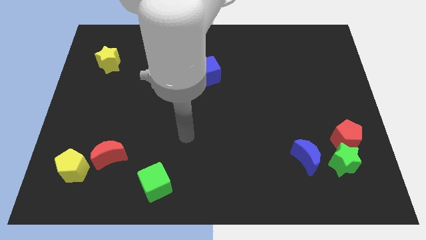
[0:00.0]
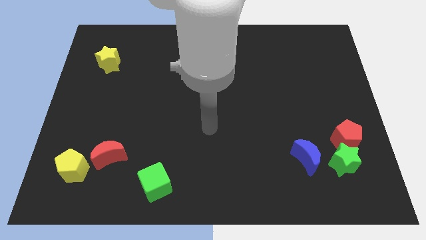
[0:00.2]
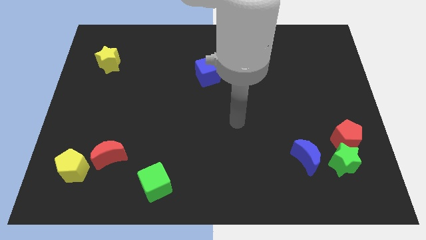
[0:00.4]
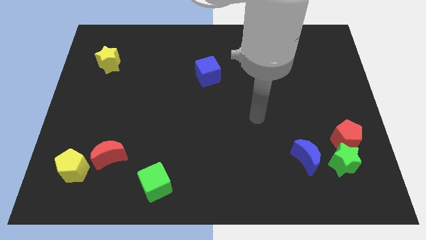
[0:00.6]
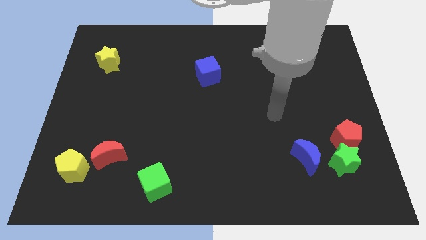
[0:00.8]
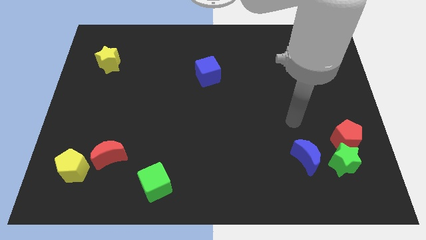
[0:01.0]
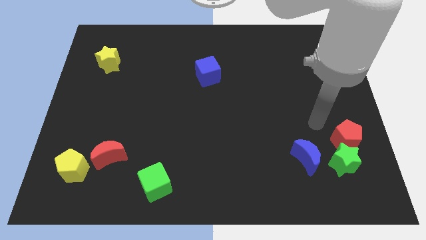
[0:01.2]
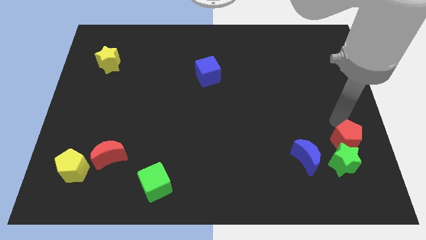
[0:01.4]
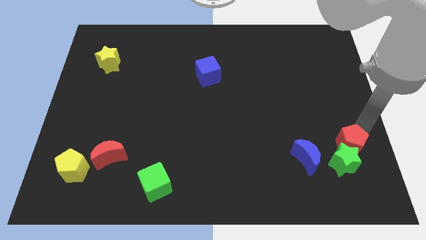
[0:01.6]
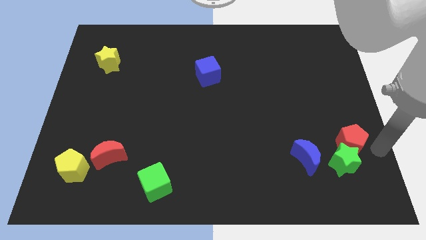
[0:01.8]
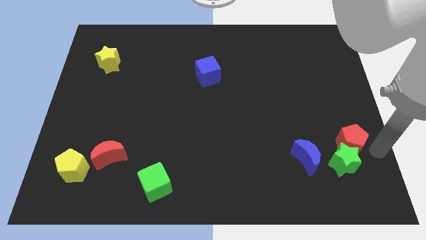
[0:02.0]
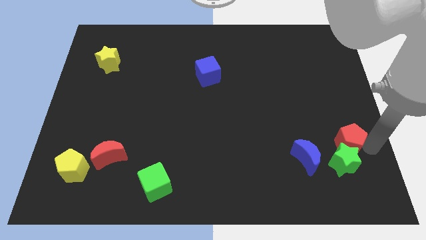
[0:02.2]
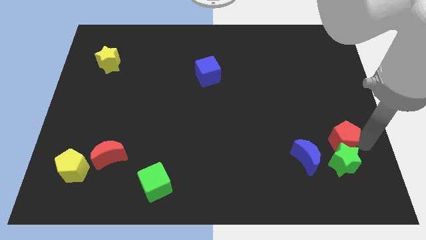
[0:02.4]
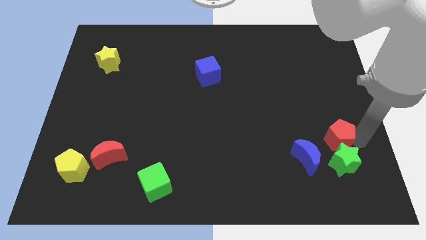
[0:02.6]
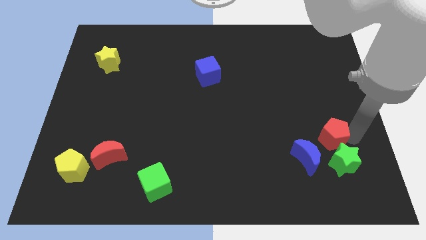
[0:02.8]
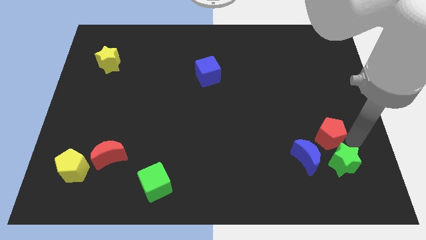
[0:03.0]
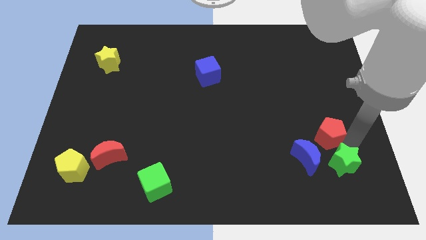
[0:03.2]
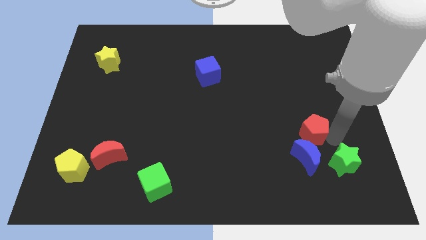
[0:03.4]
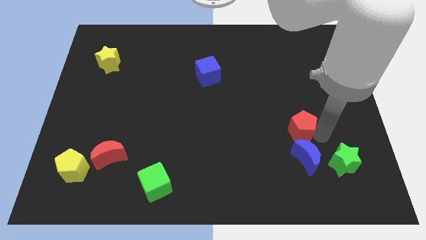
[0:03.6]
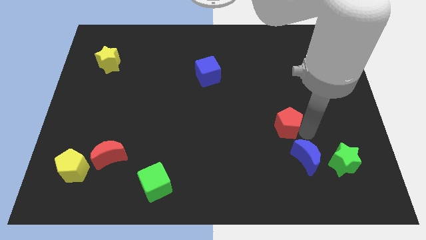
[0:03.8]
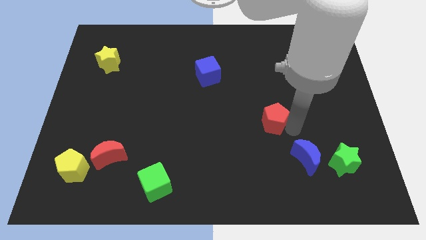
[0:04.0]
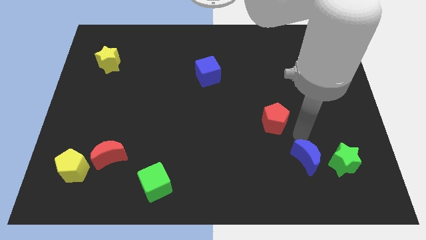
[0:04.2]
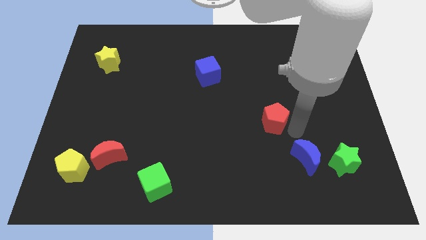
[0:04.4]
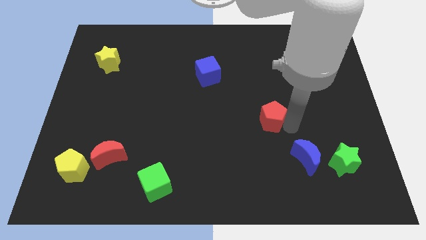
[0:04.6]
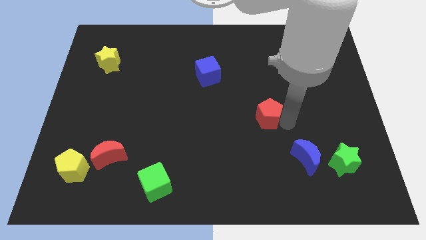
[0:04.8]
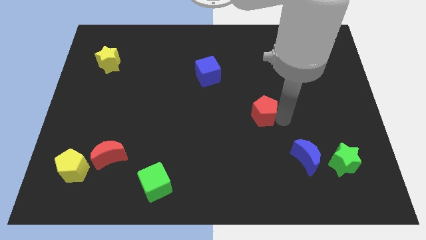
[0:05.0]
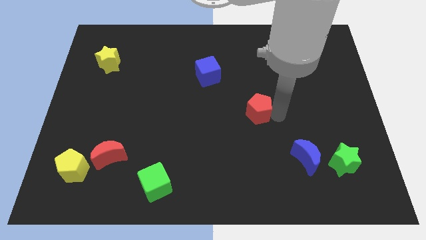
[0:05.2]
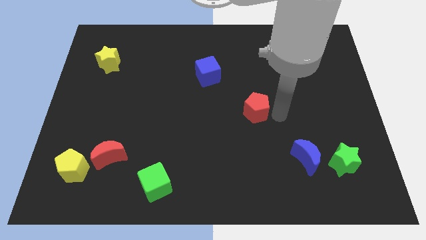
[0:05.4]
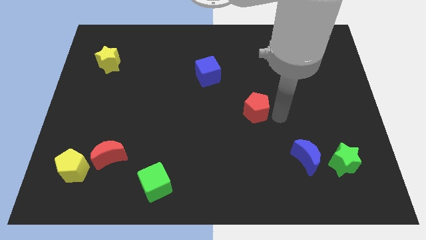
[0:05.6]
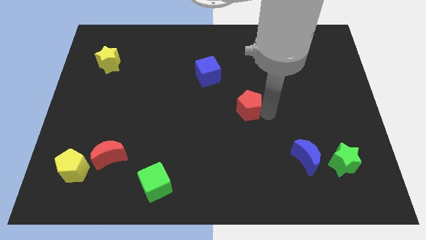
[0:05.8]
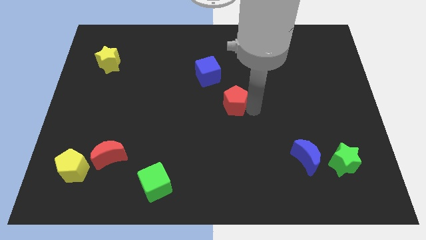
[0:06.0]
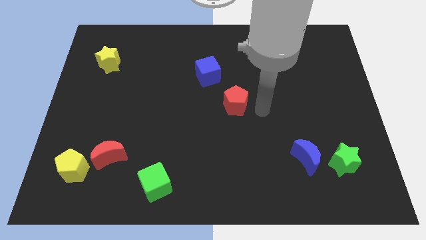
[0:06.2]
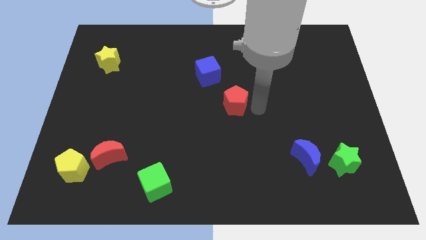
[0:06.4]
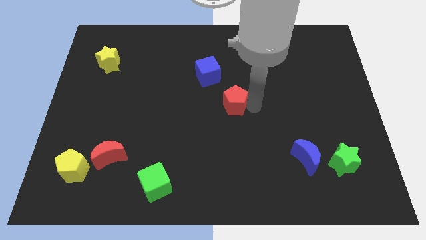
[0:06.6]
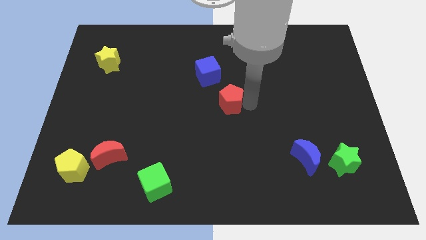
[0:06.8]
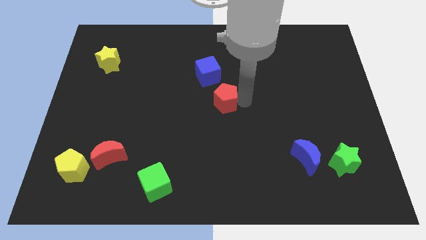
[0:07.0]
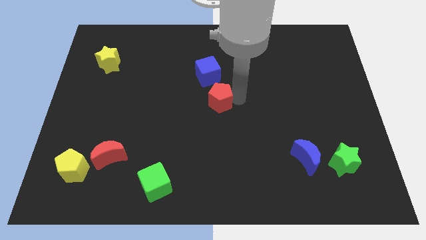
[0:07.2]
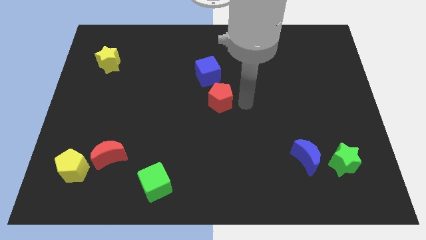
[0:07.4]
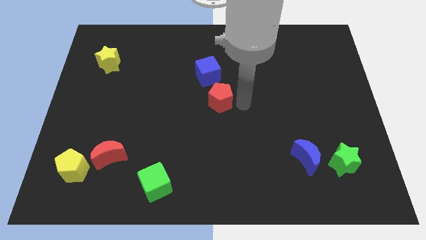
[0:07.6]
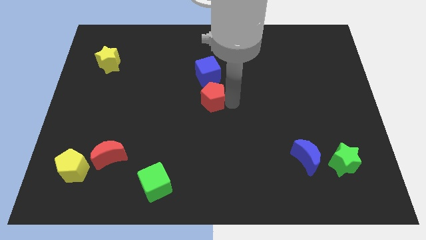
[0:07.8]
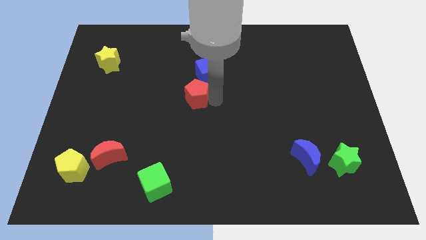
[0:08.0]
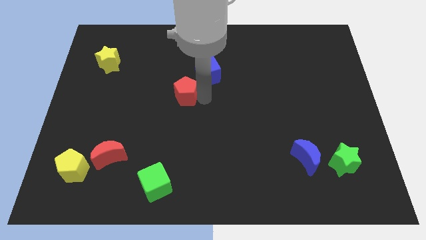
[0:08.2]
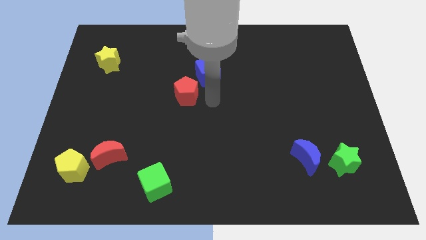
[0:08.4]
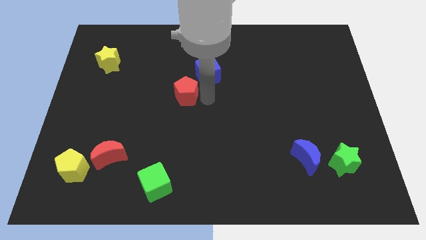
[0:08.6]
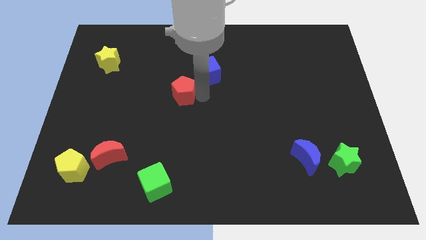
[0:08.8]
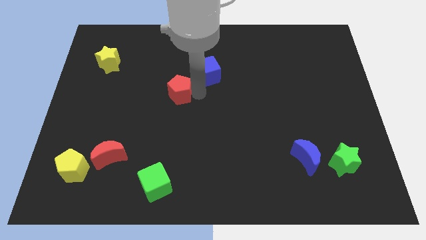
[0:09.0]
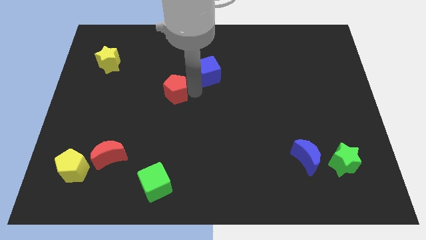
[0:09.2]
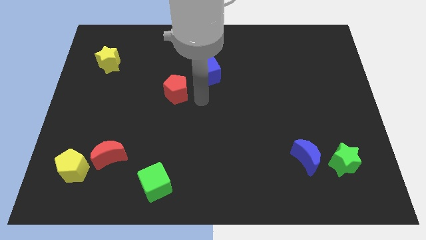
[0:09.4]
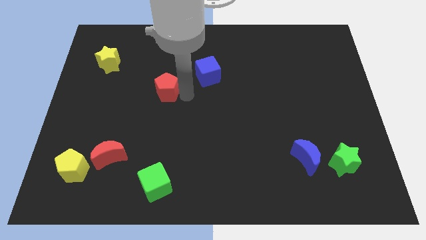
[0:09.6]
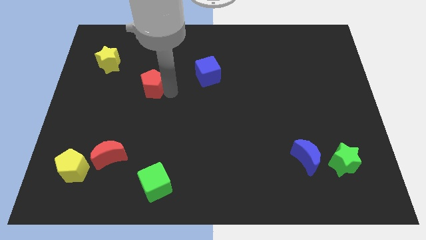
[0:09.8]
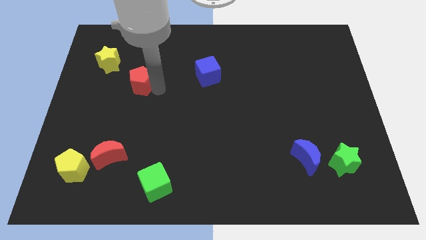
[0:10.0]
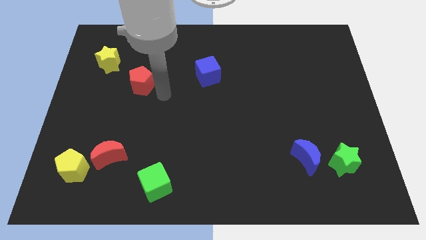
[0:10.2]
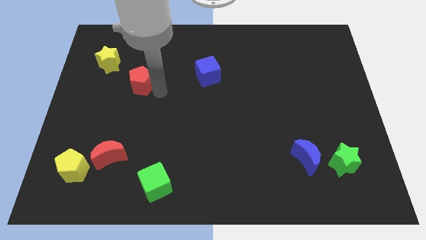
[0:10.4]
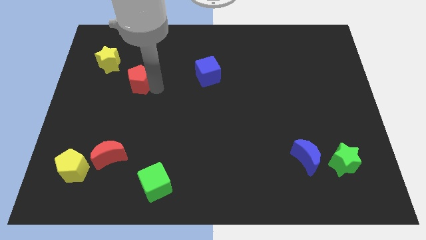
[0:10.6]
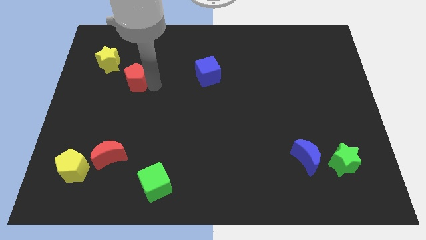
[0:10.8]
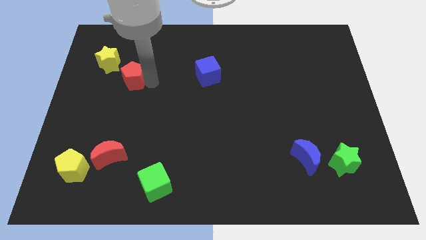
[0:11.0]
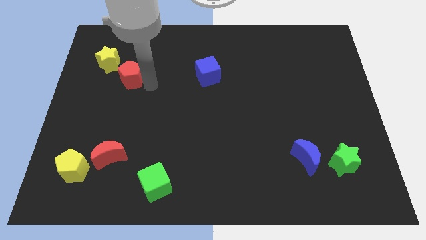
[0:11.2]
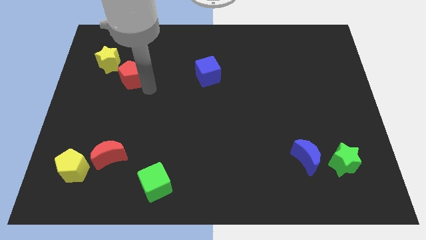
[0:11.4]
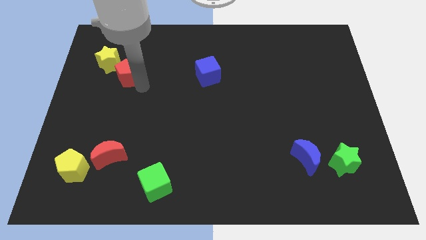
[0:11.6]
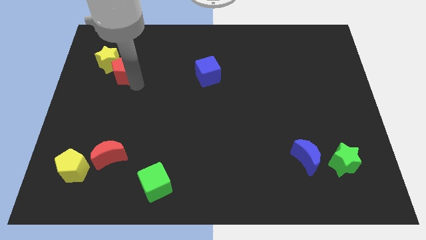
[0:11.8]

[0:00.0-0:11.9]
slide the red pentagon towards the yellow star

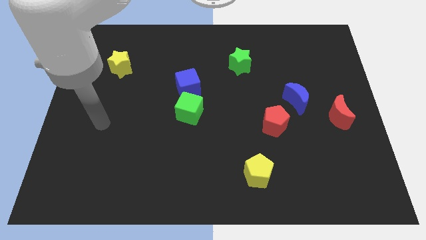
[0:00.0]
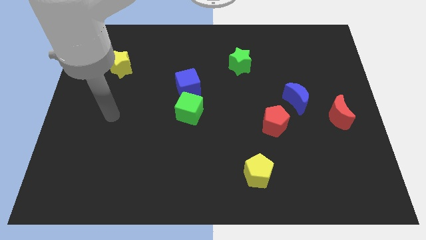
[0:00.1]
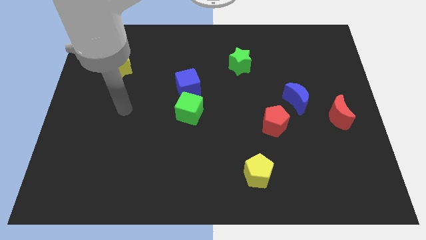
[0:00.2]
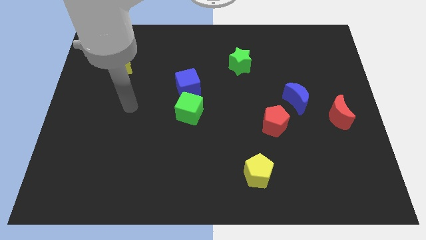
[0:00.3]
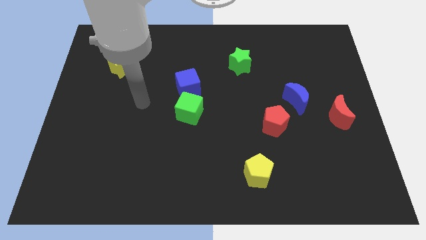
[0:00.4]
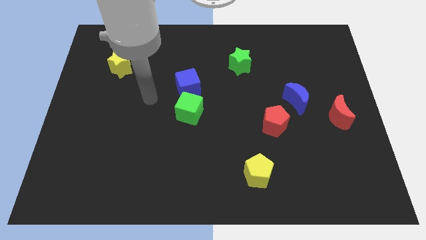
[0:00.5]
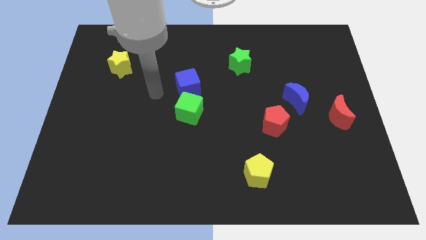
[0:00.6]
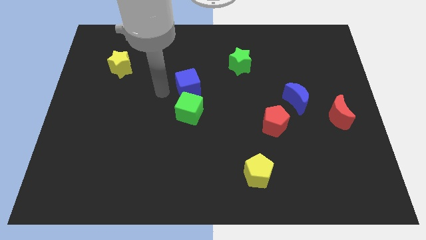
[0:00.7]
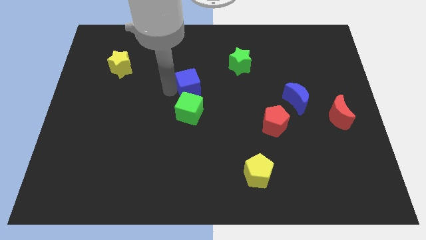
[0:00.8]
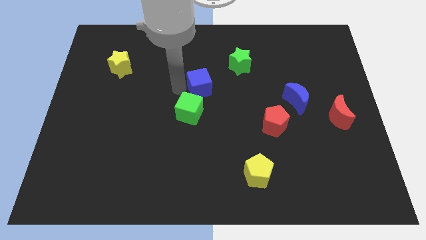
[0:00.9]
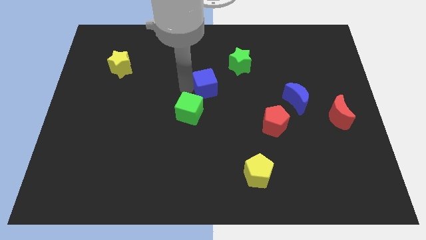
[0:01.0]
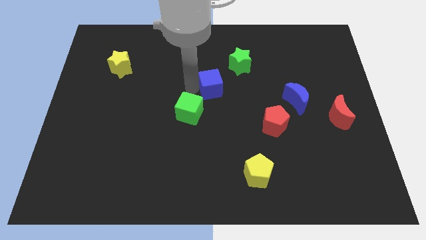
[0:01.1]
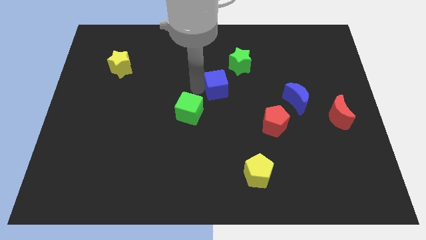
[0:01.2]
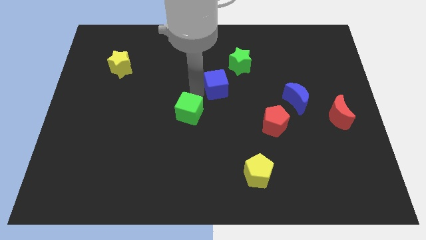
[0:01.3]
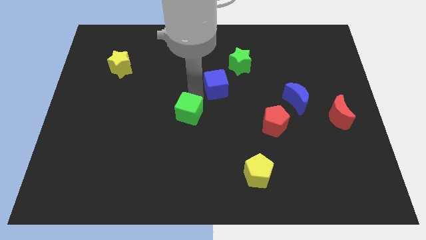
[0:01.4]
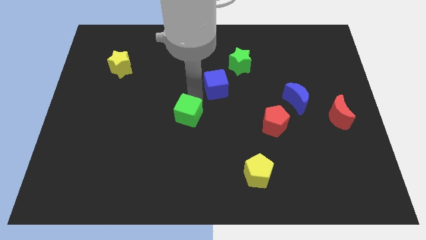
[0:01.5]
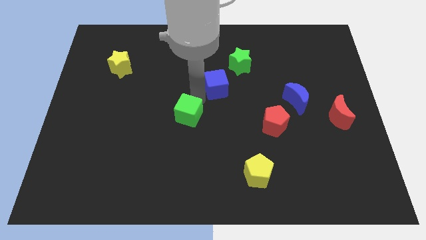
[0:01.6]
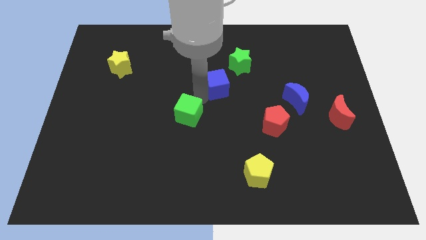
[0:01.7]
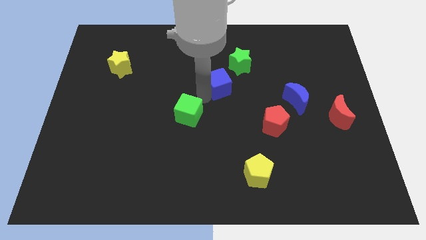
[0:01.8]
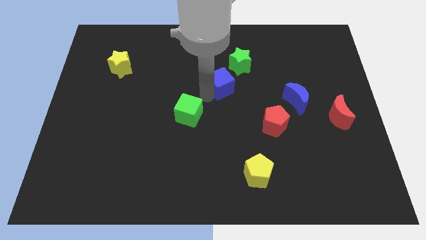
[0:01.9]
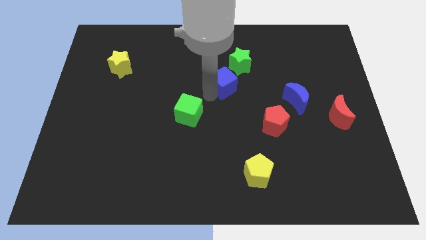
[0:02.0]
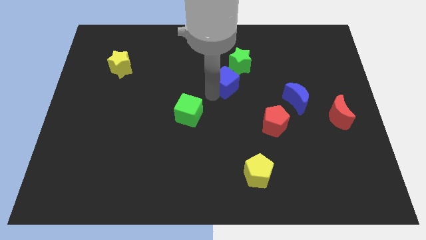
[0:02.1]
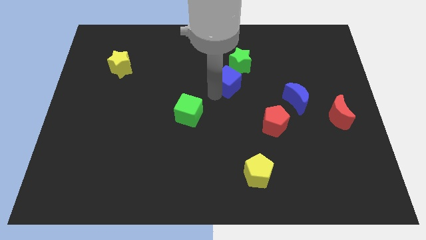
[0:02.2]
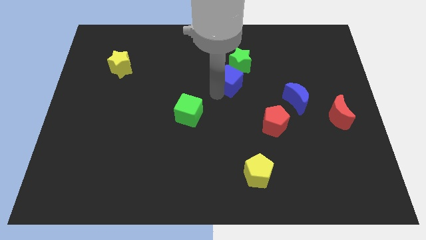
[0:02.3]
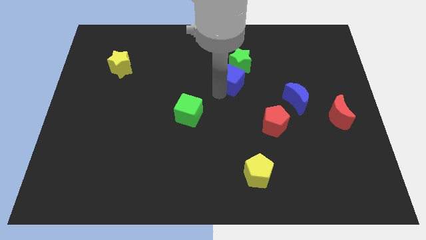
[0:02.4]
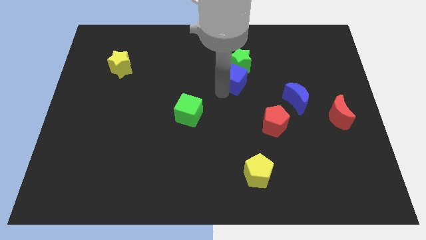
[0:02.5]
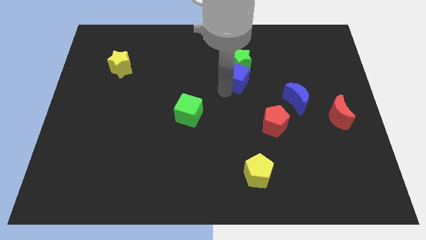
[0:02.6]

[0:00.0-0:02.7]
slide the blue cube towards the green star
